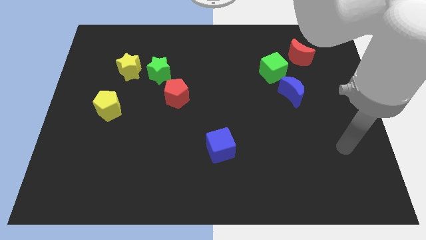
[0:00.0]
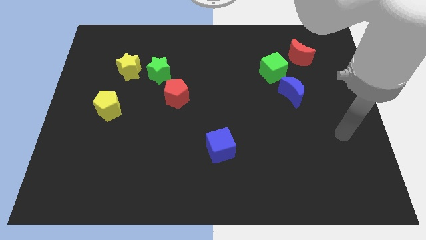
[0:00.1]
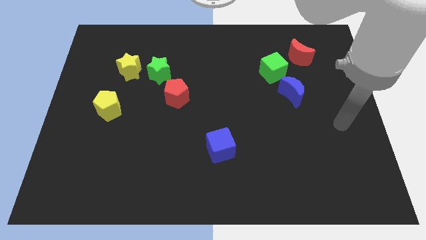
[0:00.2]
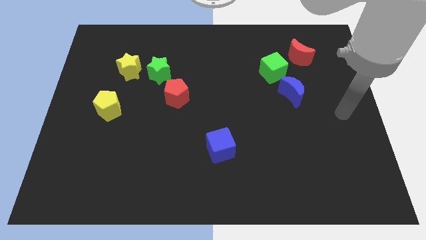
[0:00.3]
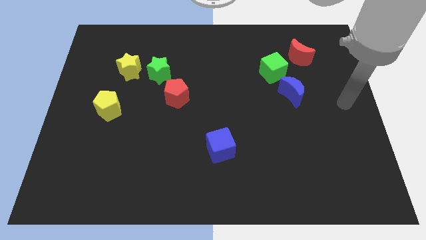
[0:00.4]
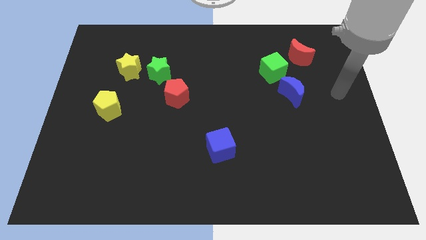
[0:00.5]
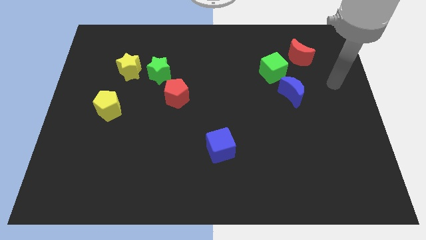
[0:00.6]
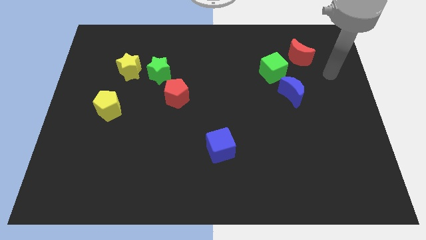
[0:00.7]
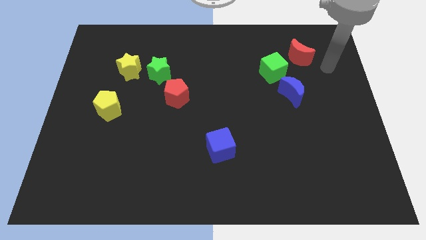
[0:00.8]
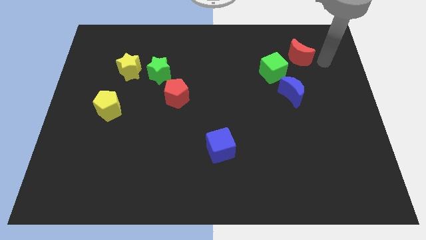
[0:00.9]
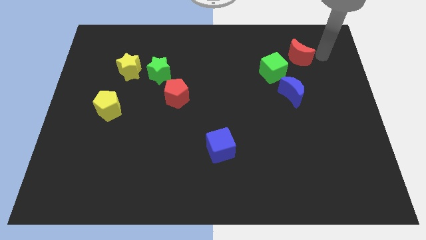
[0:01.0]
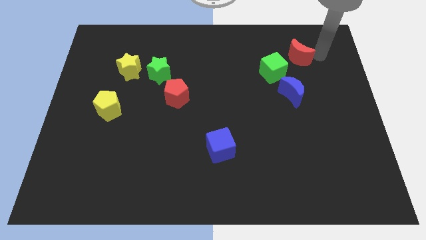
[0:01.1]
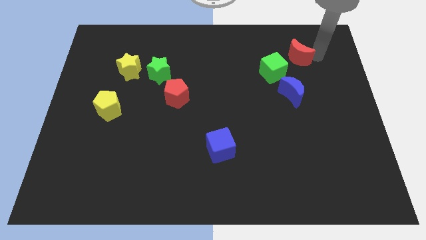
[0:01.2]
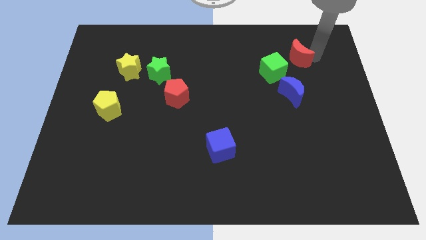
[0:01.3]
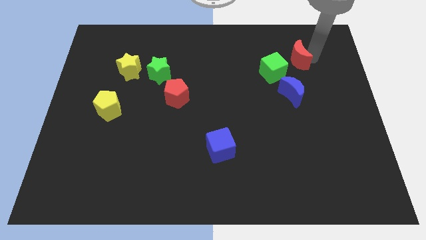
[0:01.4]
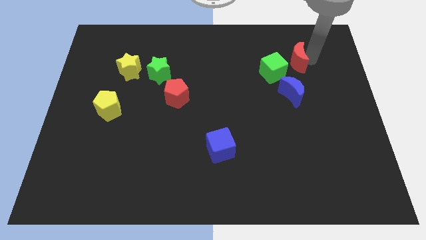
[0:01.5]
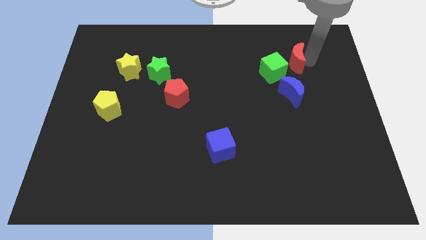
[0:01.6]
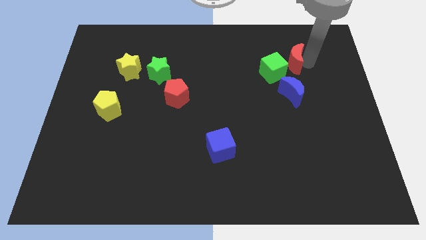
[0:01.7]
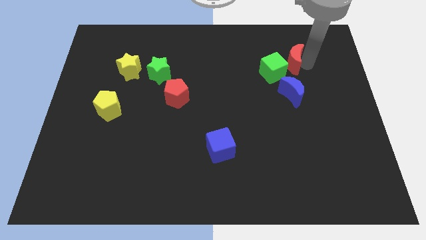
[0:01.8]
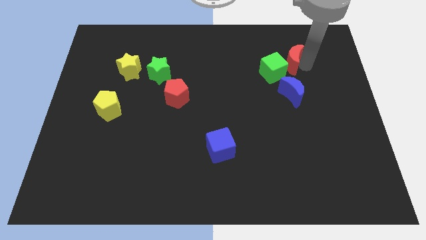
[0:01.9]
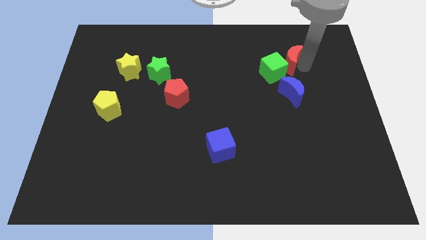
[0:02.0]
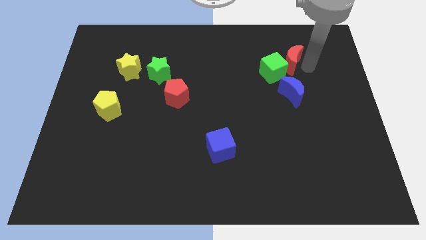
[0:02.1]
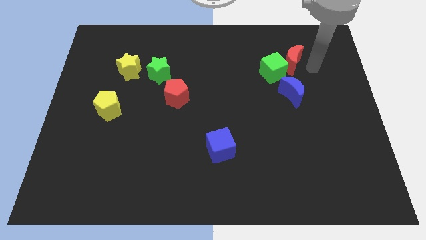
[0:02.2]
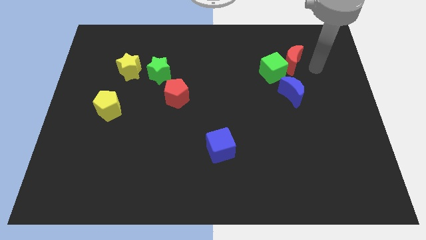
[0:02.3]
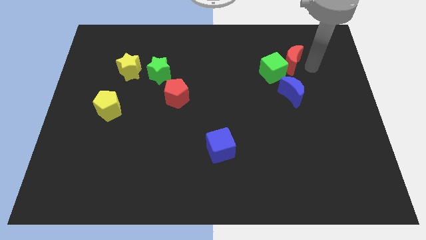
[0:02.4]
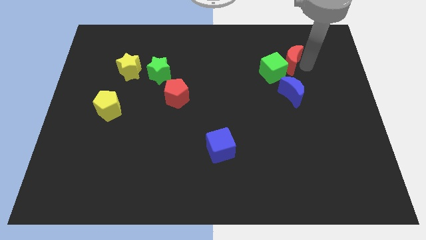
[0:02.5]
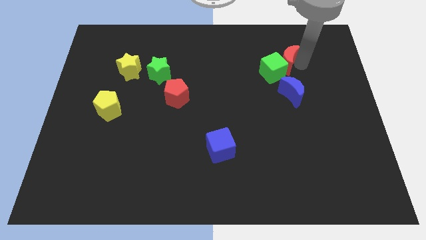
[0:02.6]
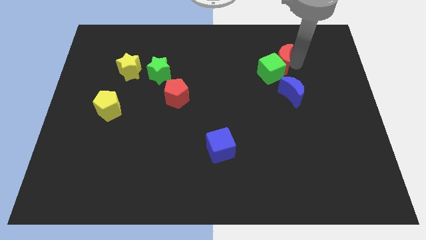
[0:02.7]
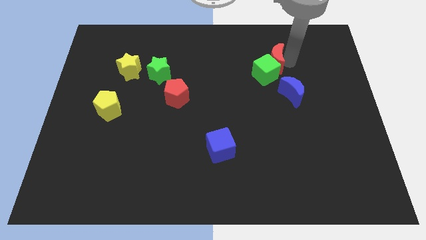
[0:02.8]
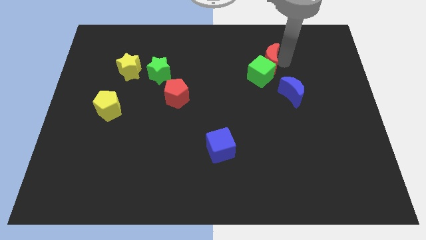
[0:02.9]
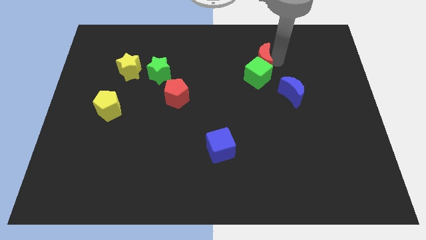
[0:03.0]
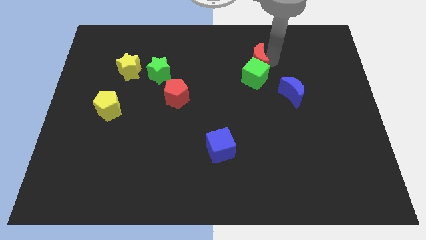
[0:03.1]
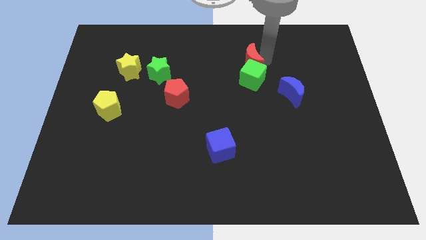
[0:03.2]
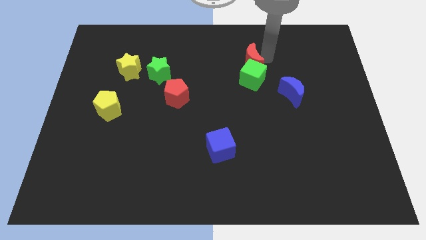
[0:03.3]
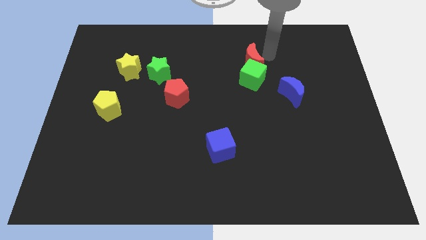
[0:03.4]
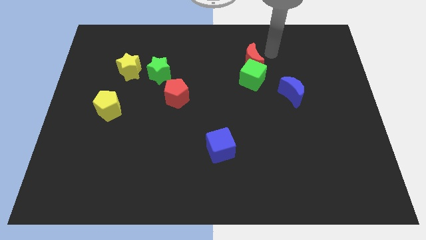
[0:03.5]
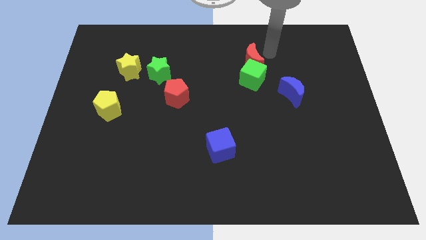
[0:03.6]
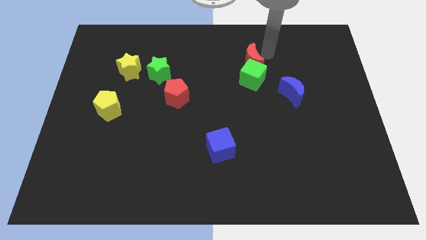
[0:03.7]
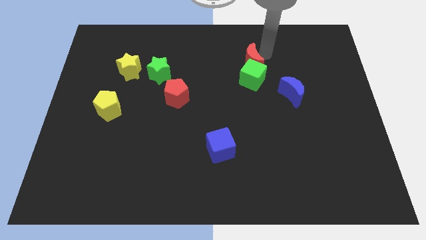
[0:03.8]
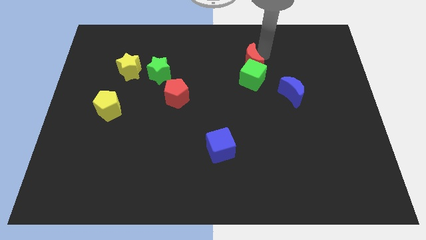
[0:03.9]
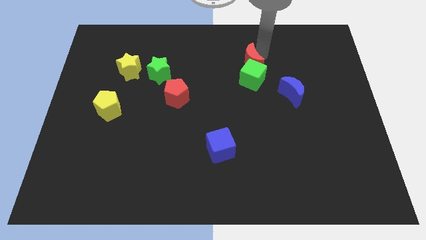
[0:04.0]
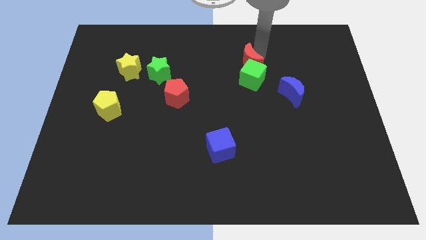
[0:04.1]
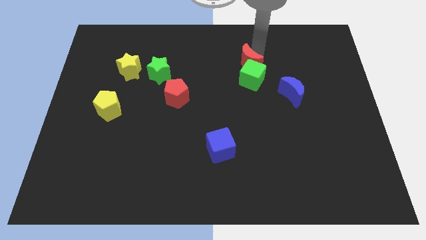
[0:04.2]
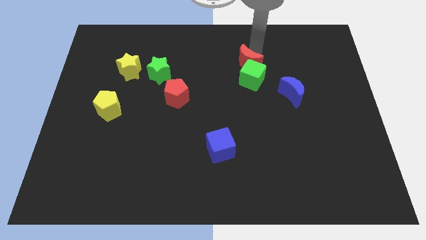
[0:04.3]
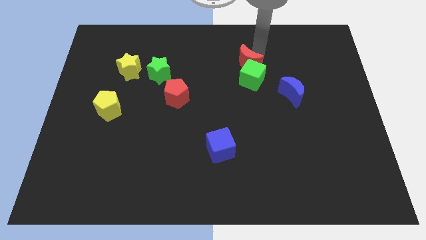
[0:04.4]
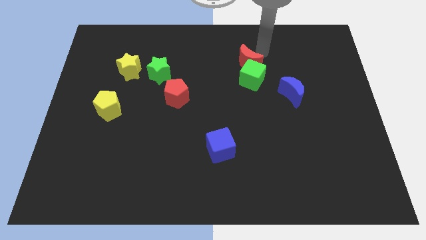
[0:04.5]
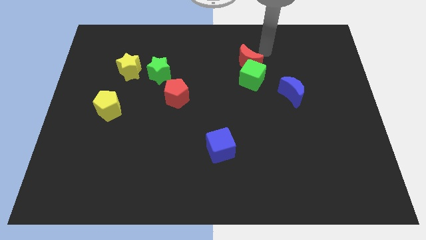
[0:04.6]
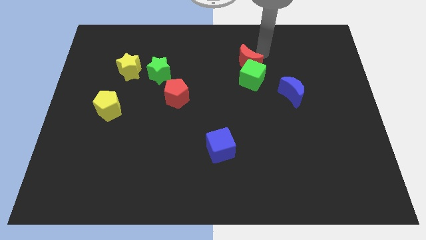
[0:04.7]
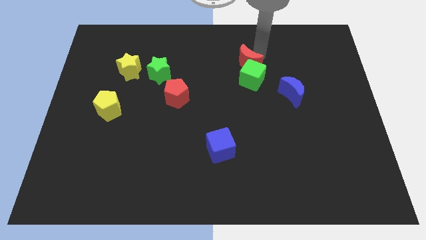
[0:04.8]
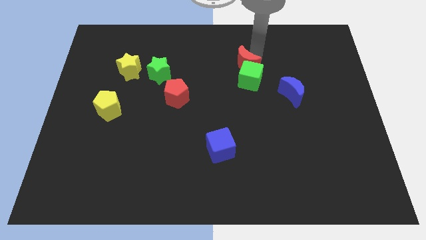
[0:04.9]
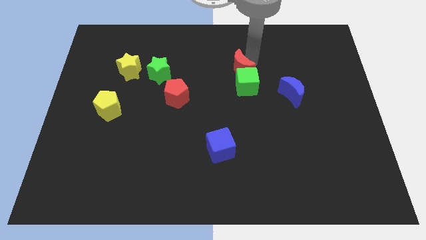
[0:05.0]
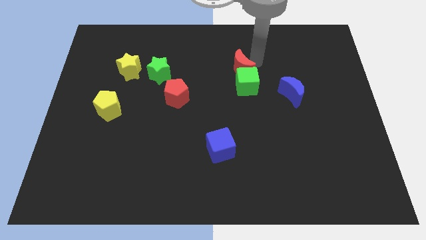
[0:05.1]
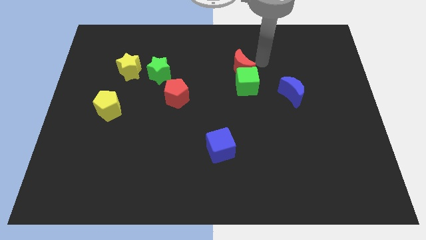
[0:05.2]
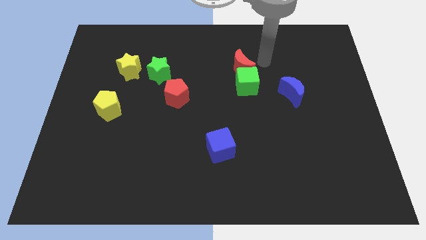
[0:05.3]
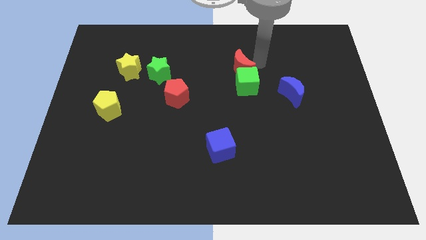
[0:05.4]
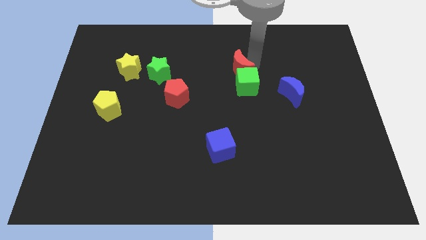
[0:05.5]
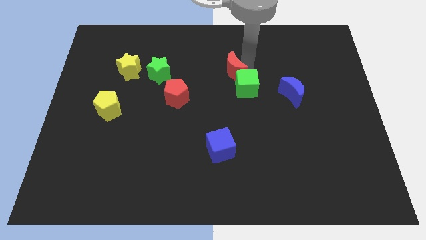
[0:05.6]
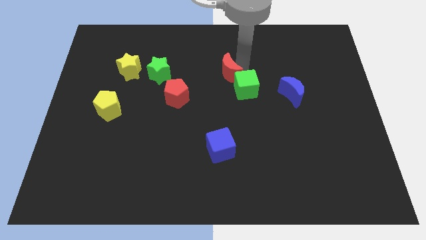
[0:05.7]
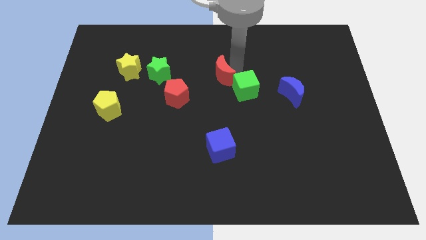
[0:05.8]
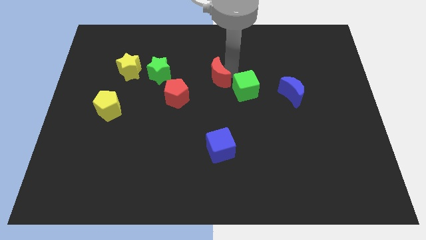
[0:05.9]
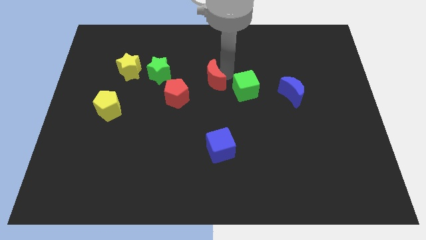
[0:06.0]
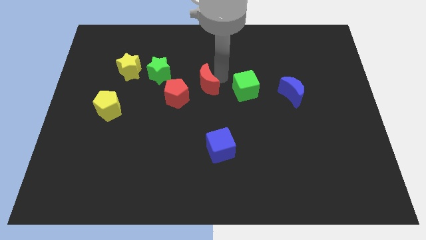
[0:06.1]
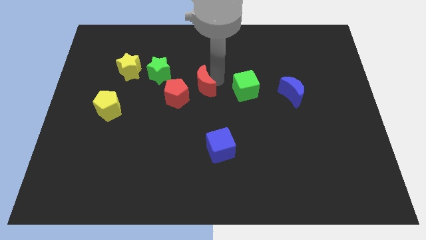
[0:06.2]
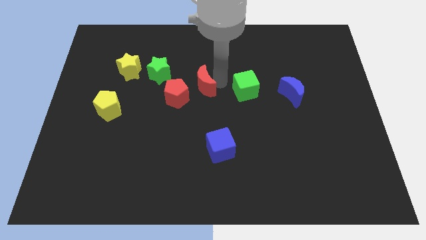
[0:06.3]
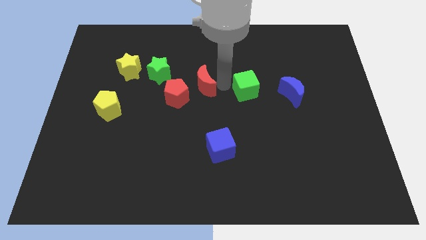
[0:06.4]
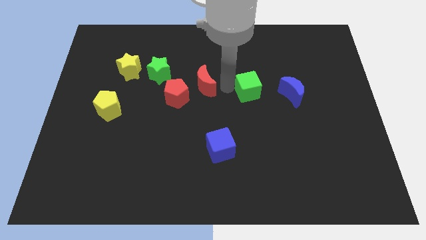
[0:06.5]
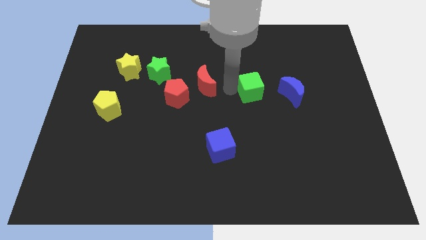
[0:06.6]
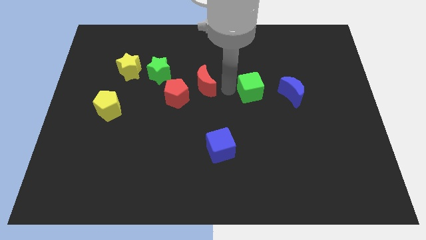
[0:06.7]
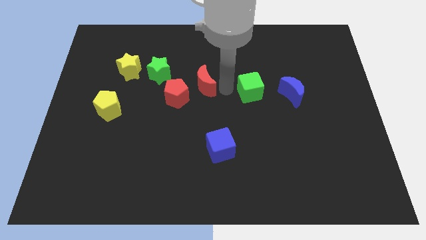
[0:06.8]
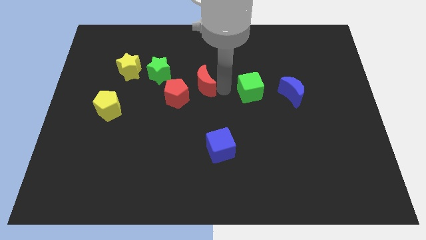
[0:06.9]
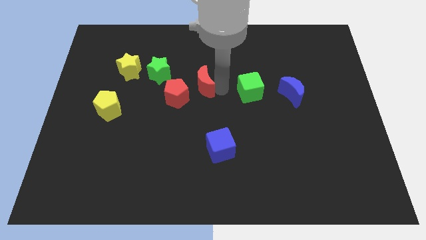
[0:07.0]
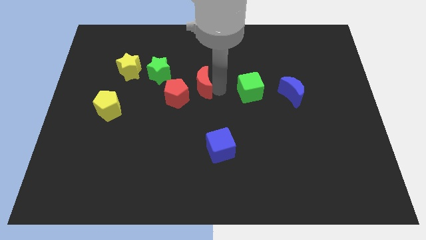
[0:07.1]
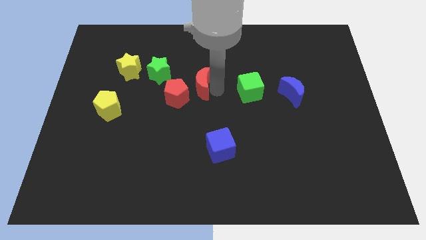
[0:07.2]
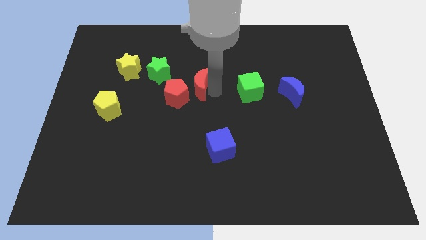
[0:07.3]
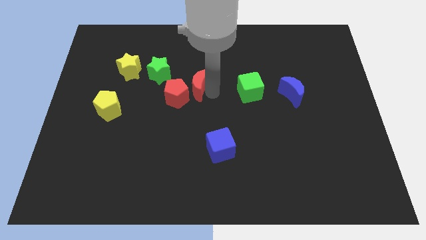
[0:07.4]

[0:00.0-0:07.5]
put the red moon close to the red pentagon
